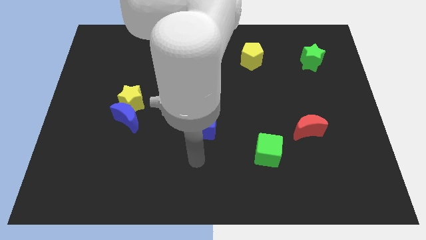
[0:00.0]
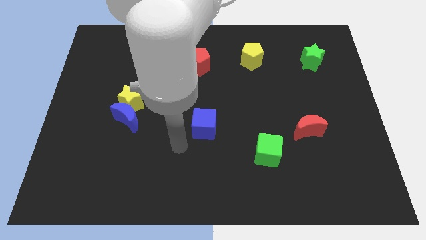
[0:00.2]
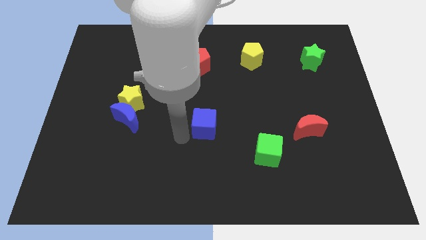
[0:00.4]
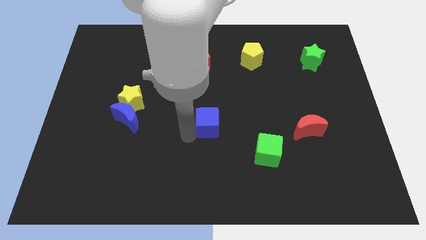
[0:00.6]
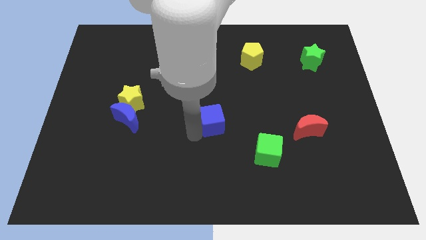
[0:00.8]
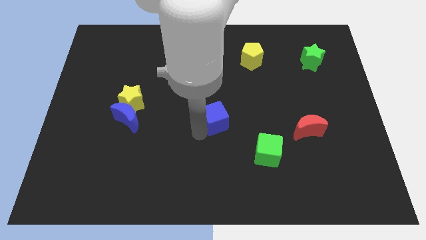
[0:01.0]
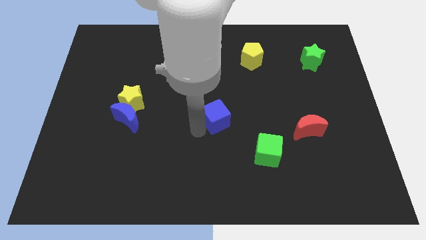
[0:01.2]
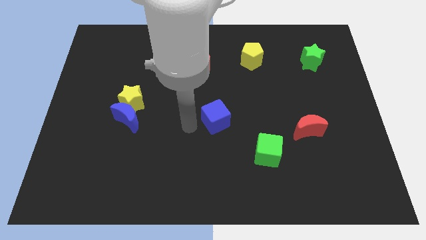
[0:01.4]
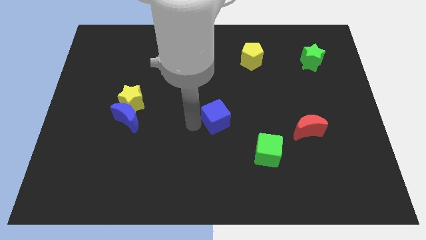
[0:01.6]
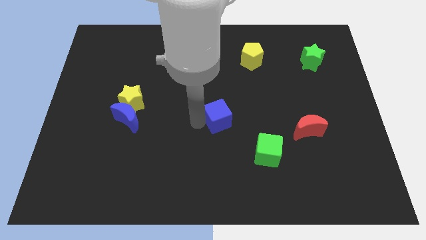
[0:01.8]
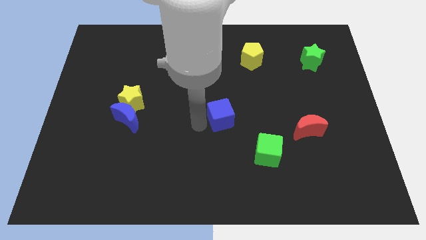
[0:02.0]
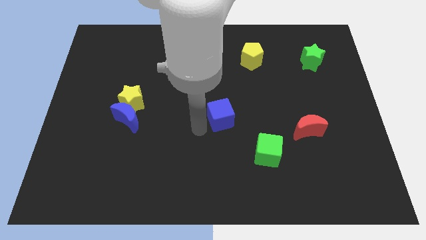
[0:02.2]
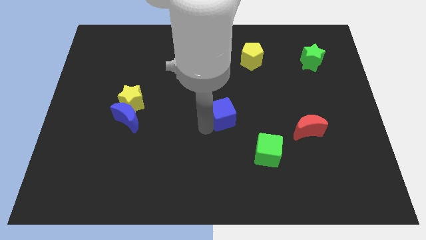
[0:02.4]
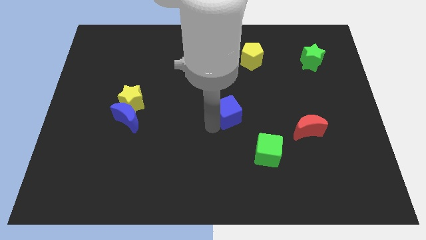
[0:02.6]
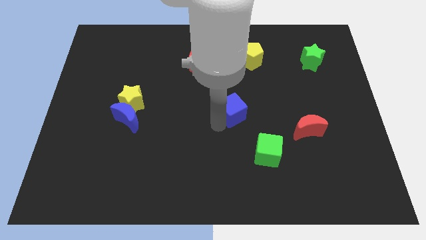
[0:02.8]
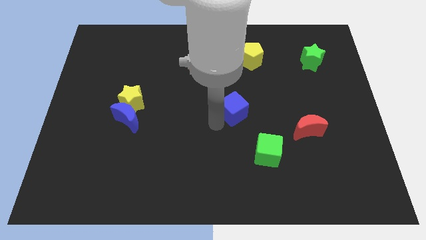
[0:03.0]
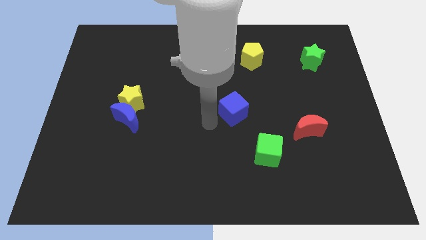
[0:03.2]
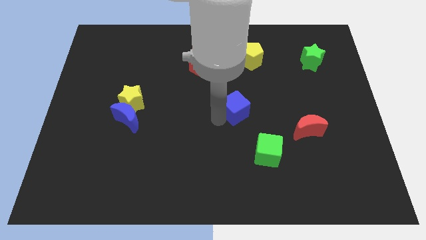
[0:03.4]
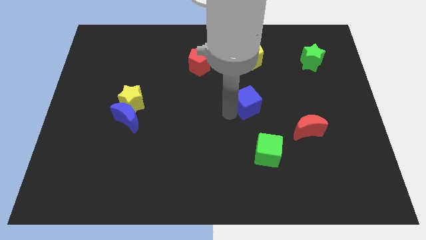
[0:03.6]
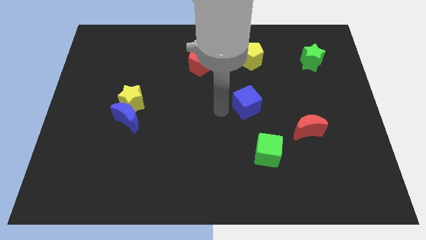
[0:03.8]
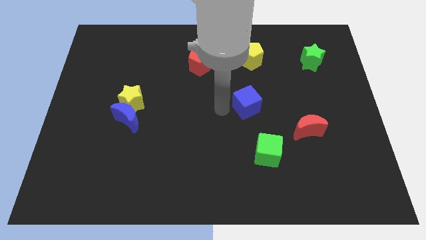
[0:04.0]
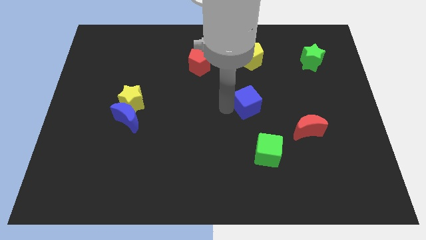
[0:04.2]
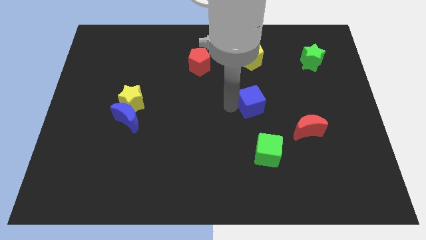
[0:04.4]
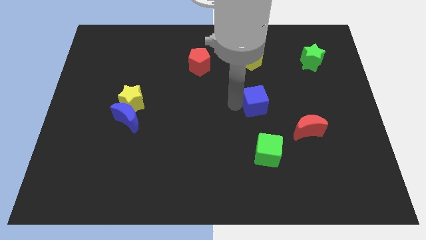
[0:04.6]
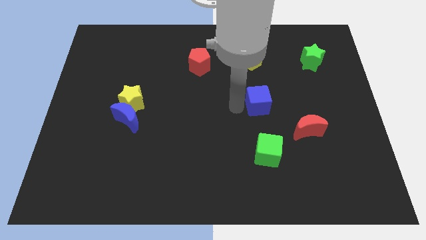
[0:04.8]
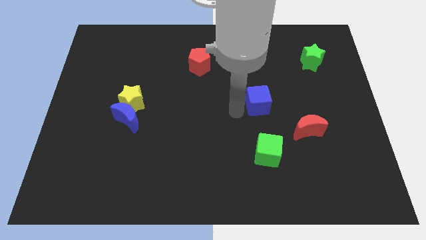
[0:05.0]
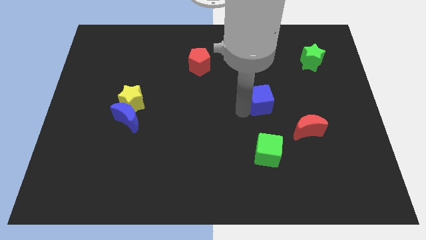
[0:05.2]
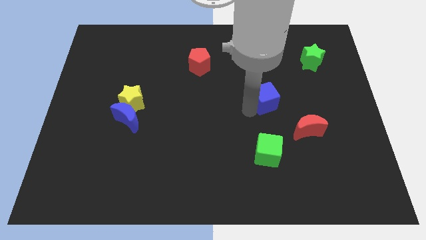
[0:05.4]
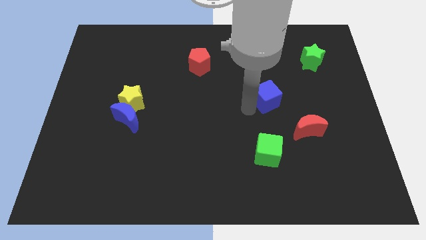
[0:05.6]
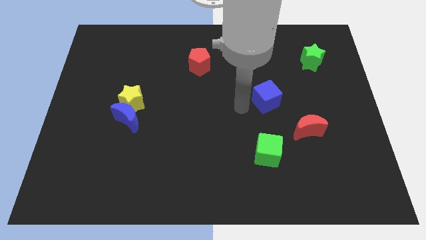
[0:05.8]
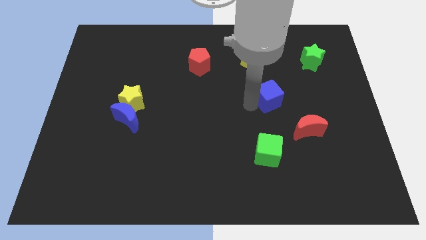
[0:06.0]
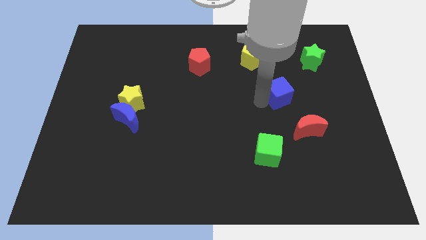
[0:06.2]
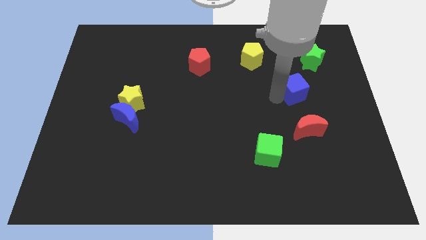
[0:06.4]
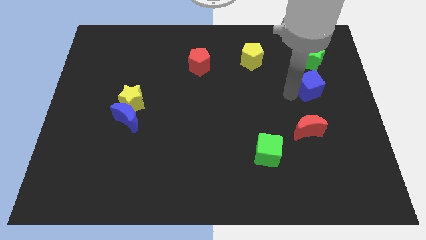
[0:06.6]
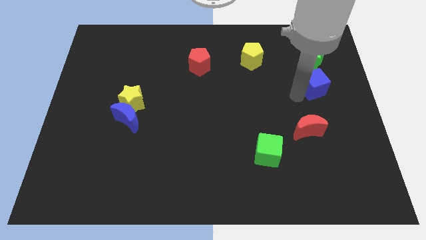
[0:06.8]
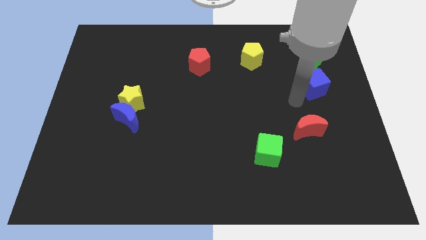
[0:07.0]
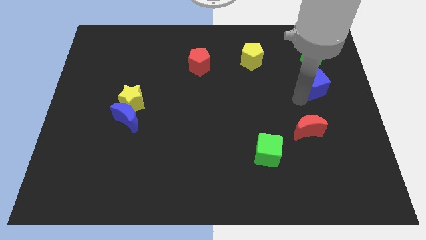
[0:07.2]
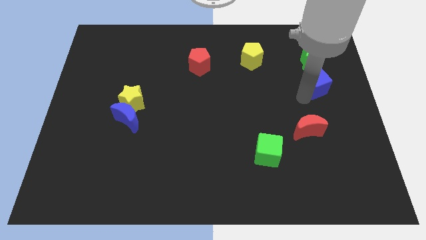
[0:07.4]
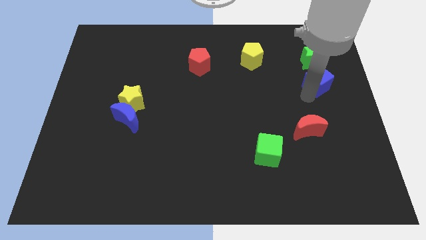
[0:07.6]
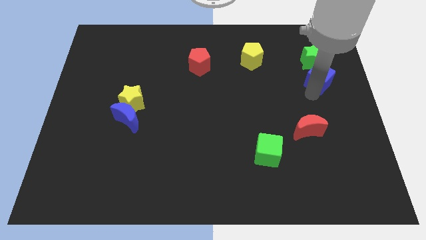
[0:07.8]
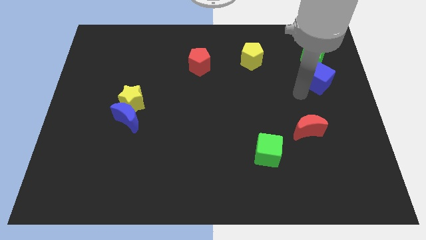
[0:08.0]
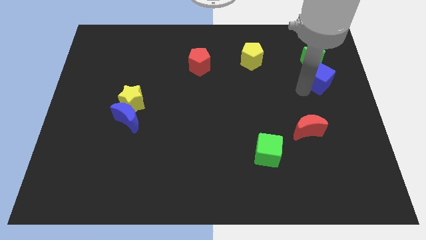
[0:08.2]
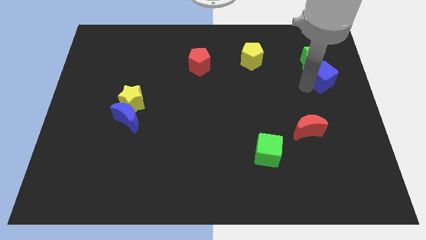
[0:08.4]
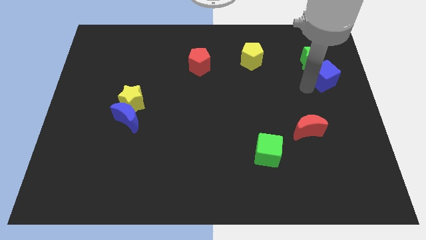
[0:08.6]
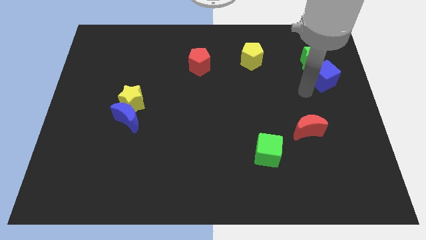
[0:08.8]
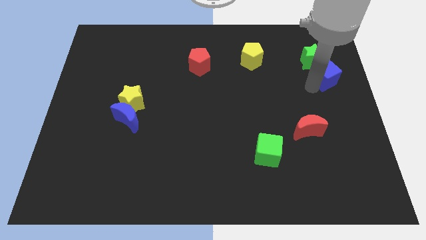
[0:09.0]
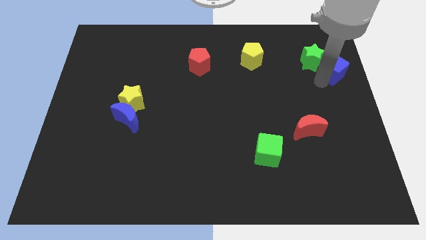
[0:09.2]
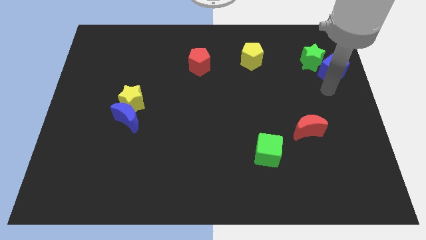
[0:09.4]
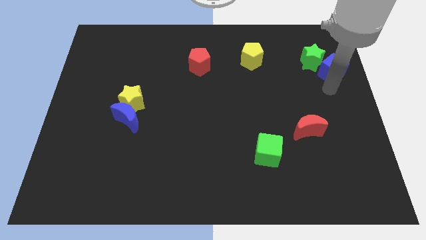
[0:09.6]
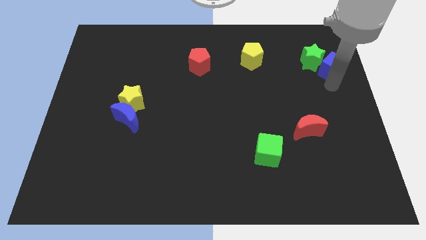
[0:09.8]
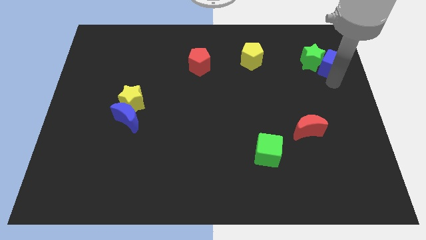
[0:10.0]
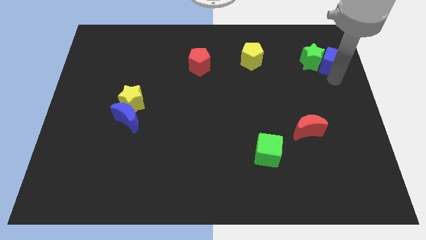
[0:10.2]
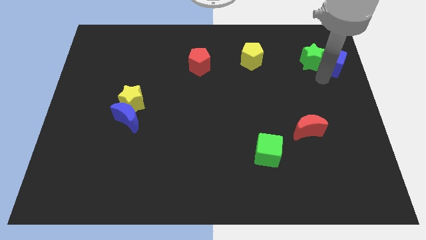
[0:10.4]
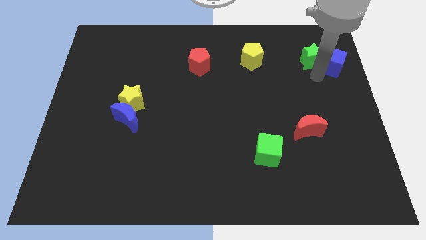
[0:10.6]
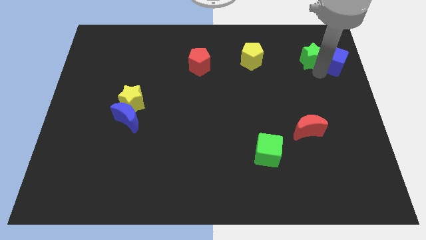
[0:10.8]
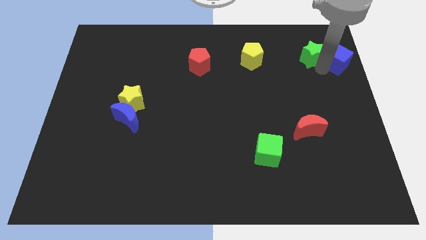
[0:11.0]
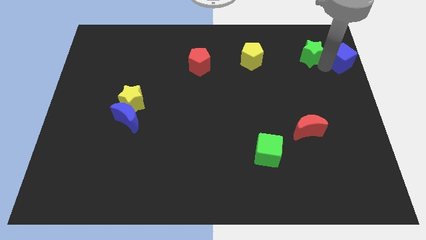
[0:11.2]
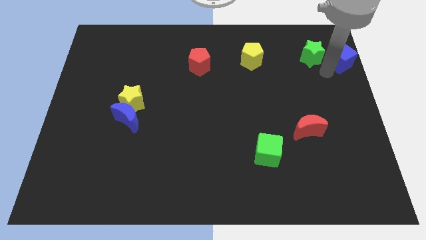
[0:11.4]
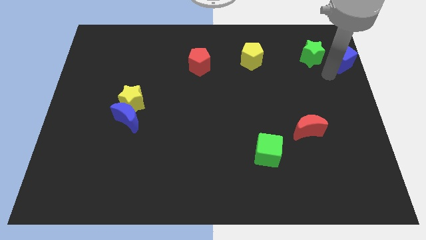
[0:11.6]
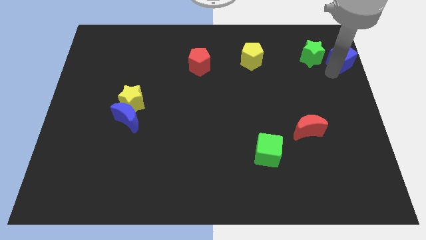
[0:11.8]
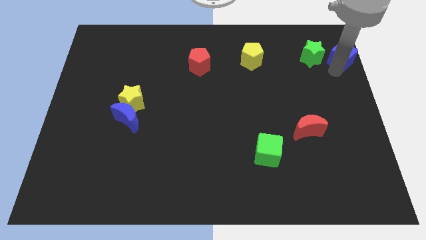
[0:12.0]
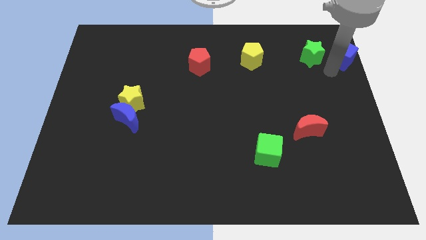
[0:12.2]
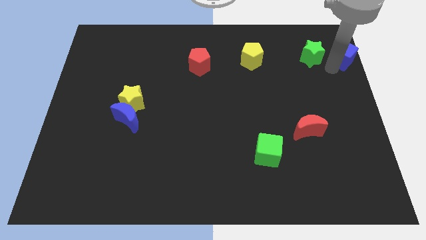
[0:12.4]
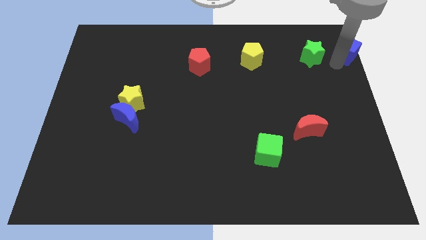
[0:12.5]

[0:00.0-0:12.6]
put the blue cube to the top right

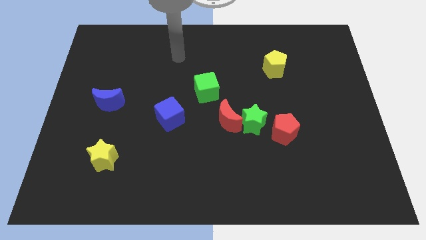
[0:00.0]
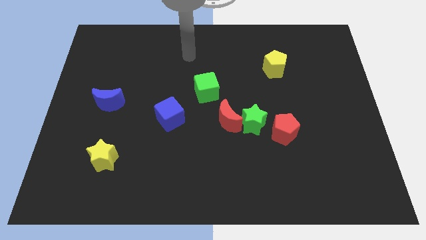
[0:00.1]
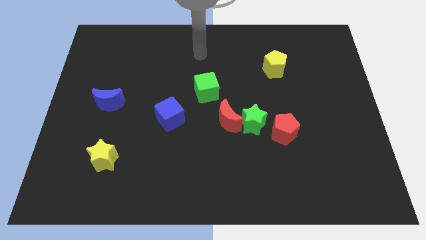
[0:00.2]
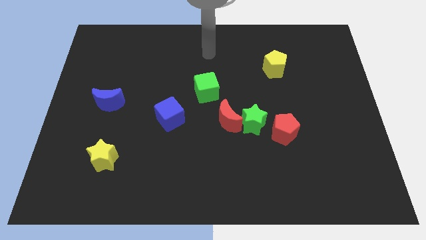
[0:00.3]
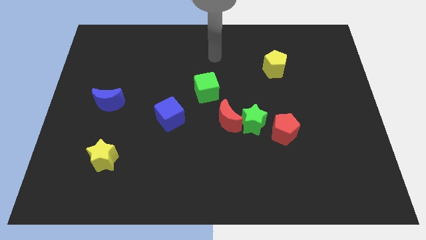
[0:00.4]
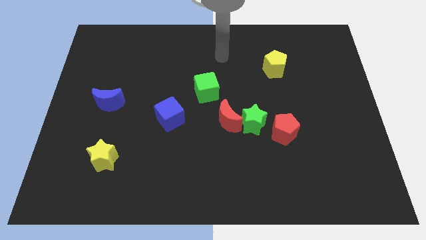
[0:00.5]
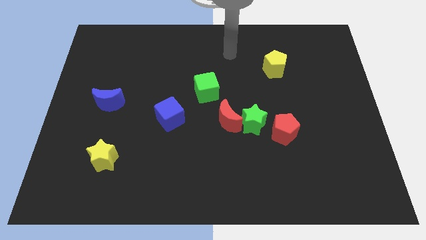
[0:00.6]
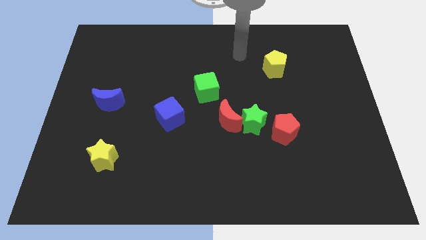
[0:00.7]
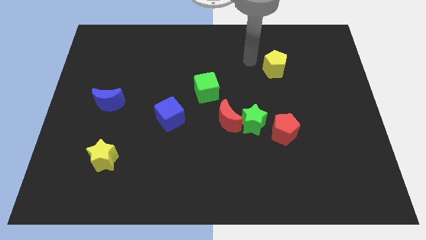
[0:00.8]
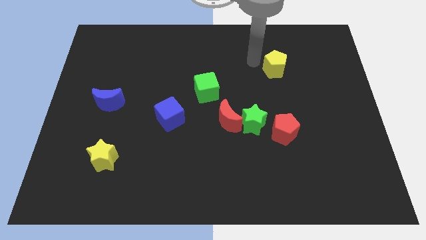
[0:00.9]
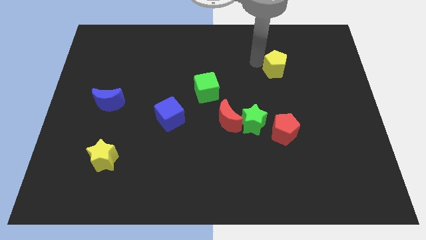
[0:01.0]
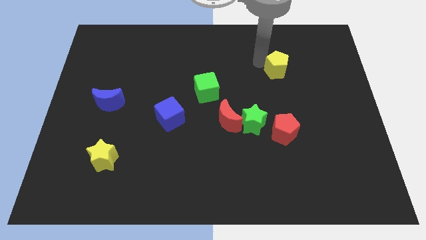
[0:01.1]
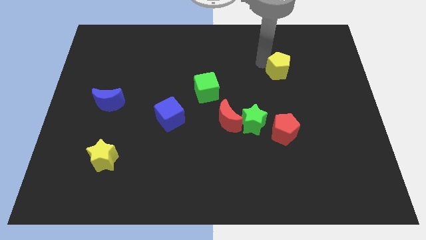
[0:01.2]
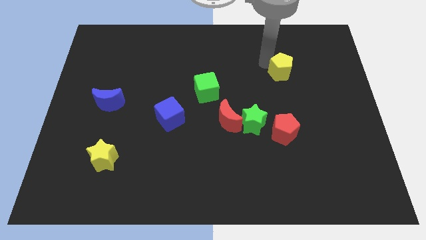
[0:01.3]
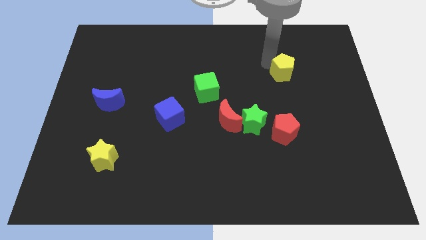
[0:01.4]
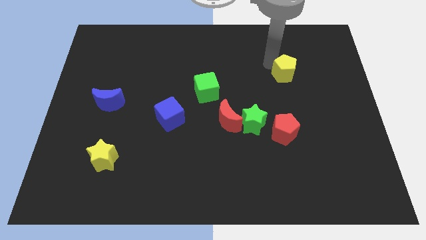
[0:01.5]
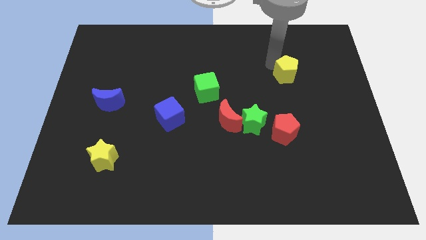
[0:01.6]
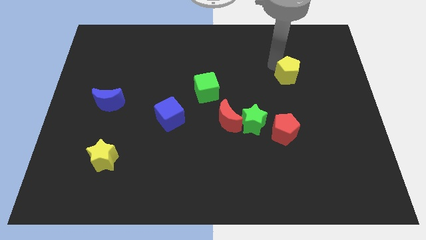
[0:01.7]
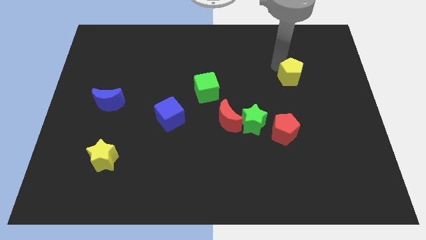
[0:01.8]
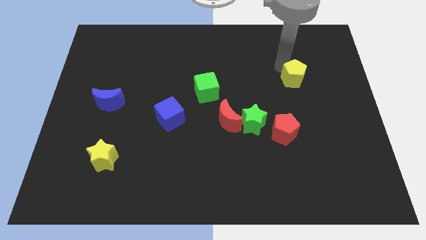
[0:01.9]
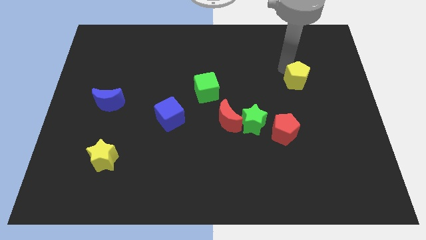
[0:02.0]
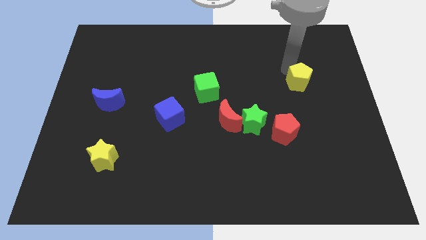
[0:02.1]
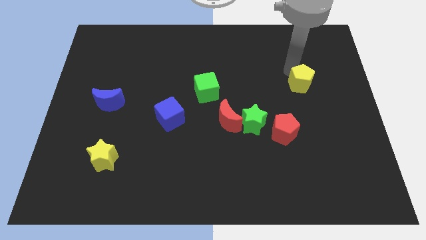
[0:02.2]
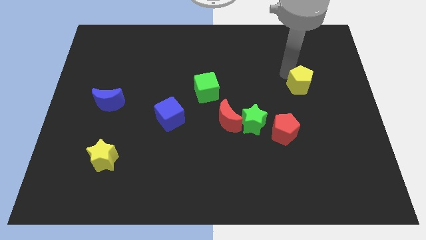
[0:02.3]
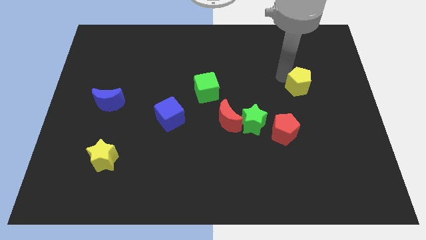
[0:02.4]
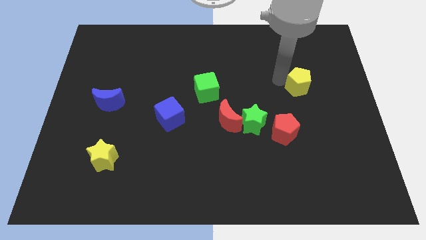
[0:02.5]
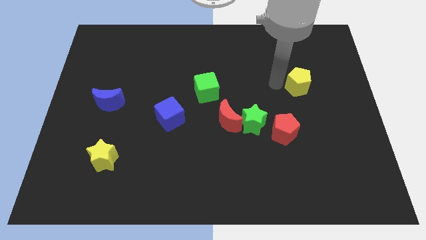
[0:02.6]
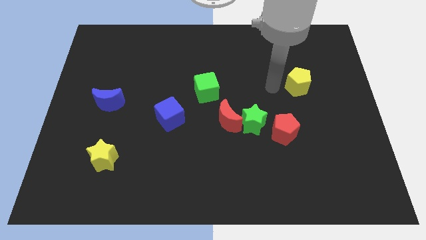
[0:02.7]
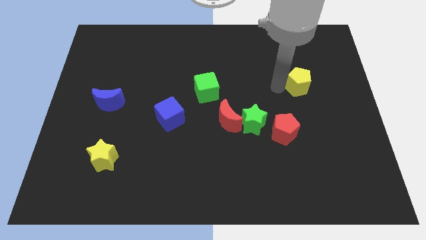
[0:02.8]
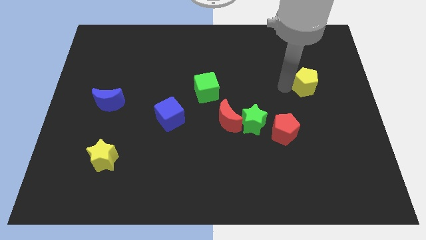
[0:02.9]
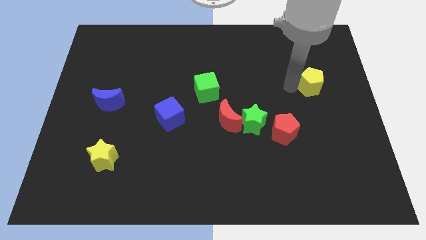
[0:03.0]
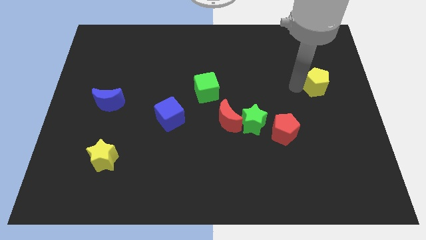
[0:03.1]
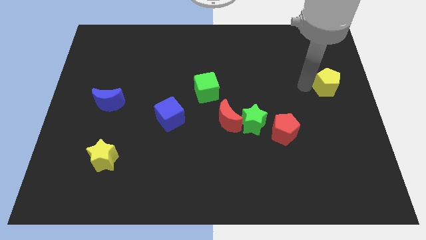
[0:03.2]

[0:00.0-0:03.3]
push the yellow pentagon to the center right
